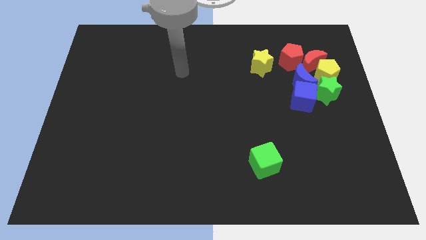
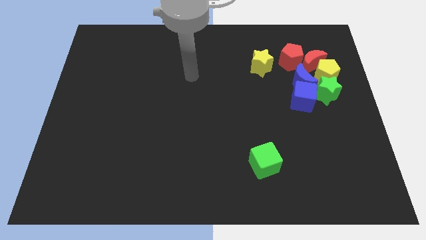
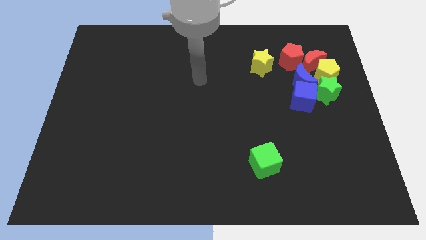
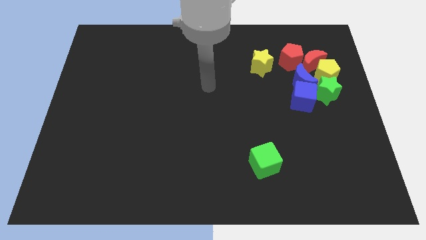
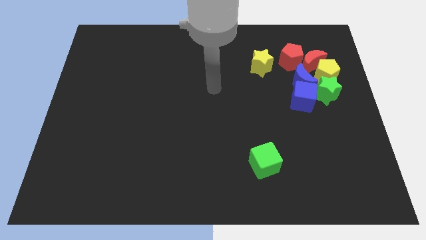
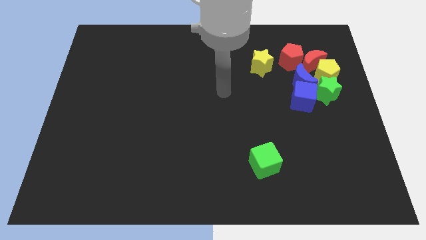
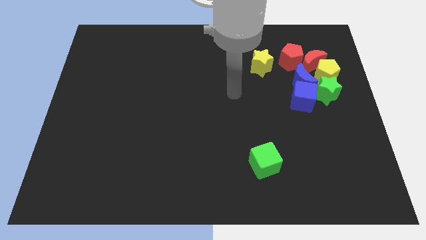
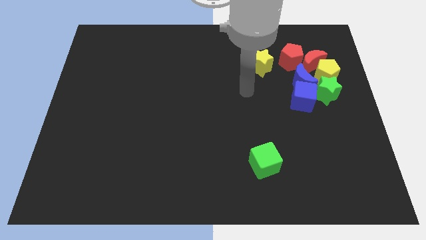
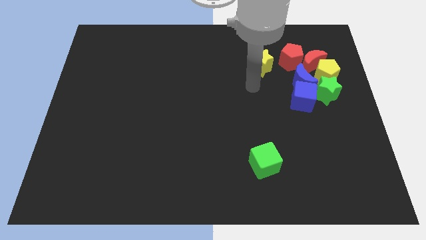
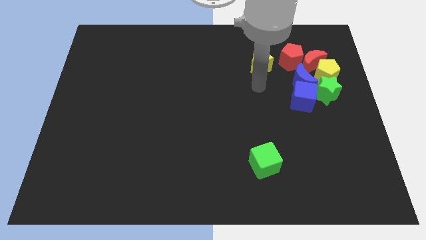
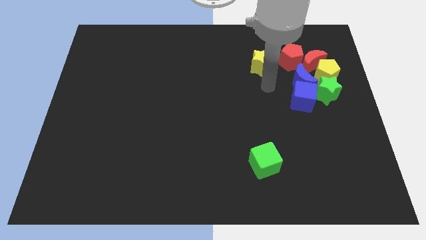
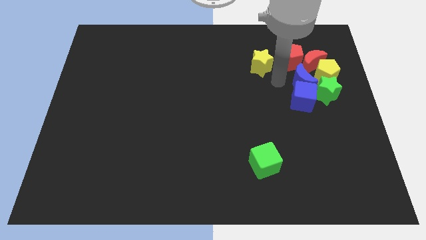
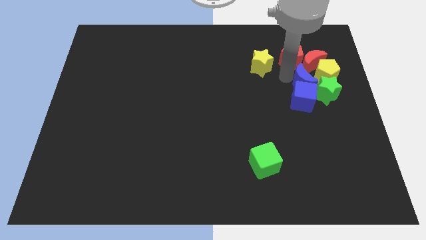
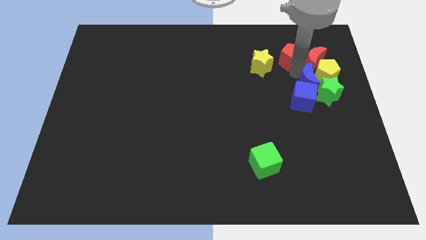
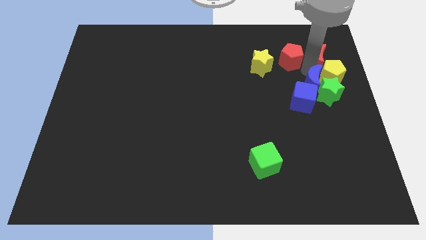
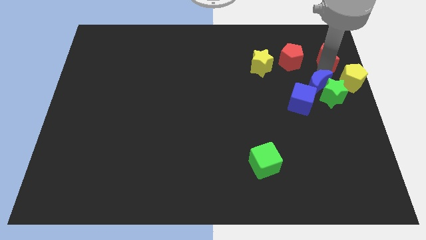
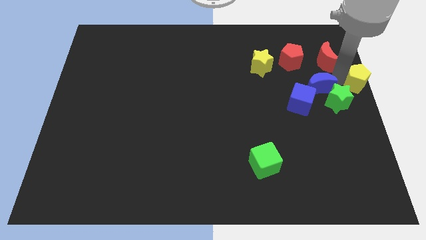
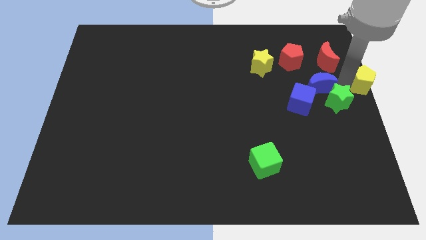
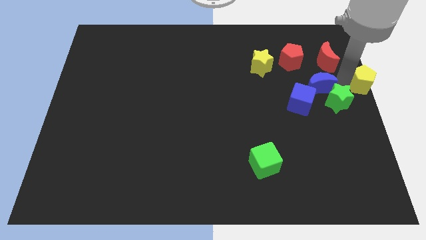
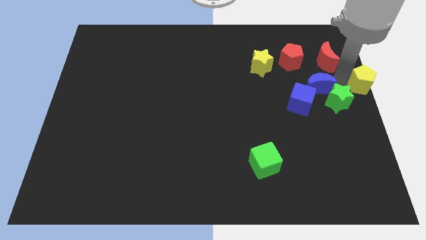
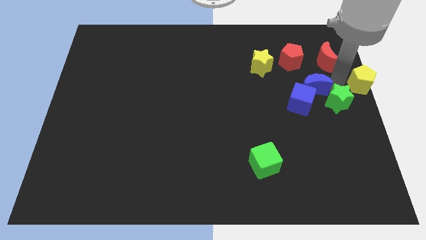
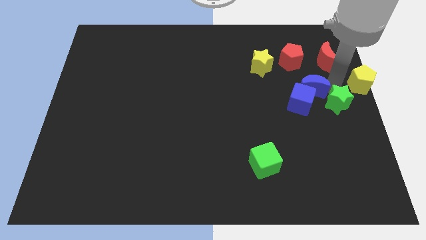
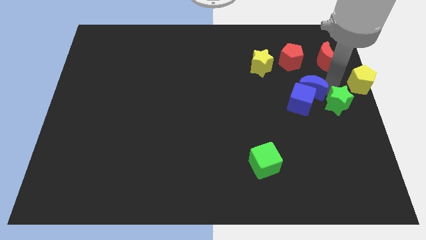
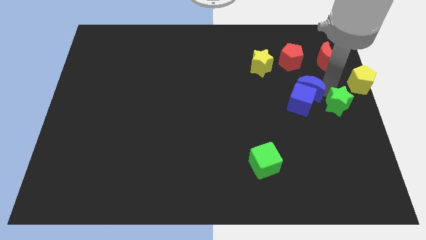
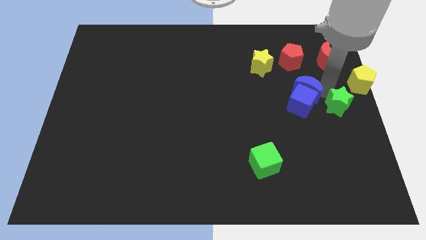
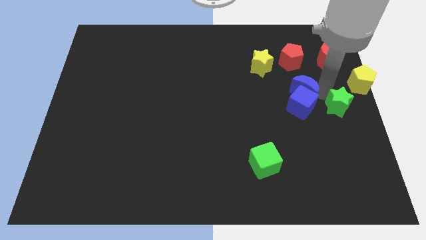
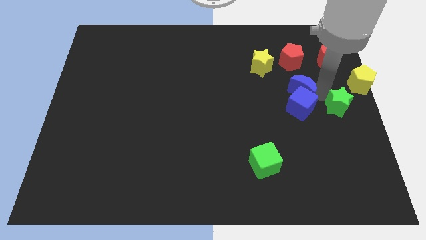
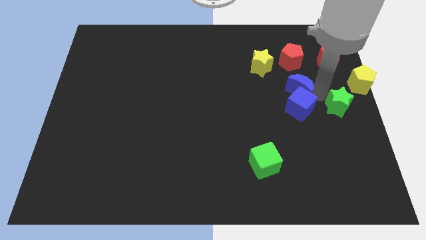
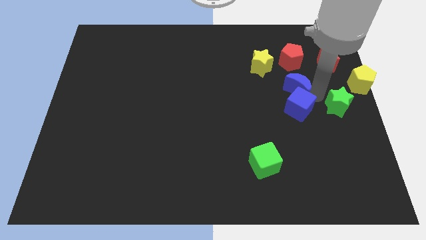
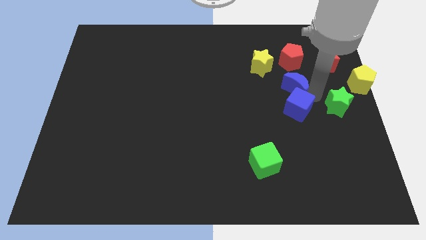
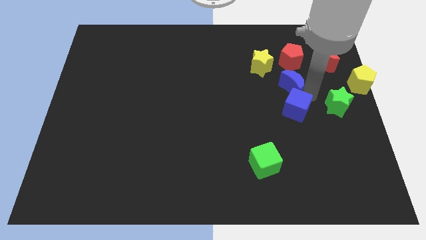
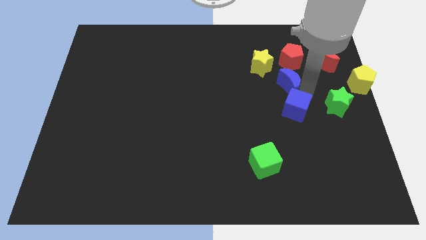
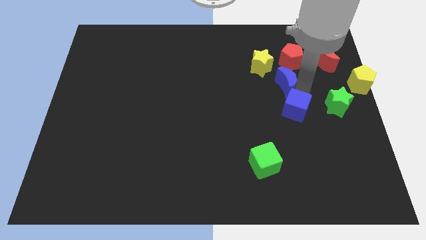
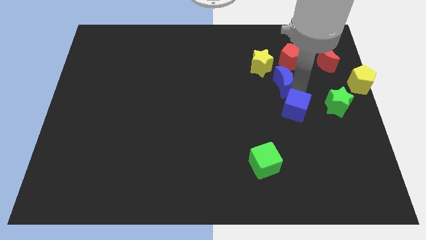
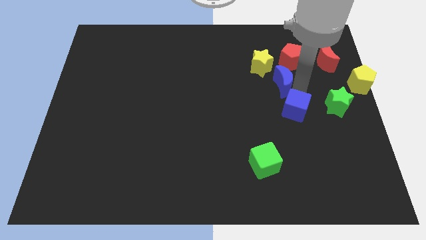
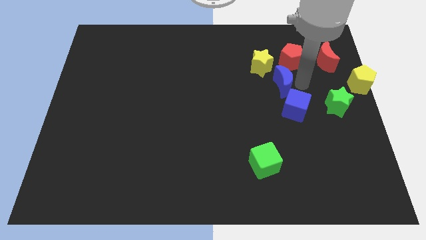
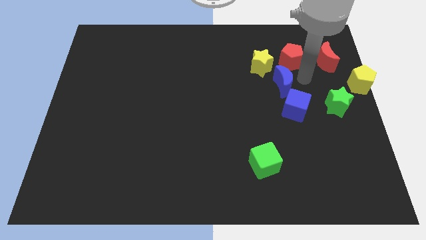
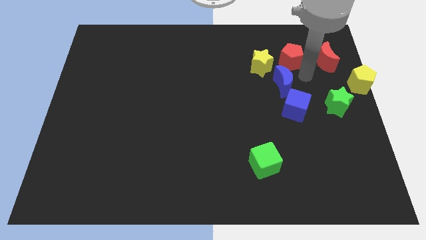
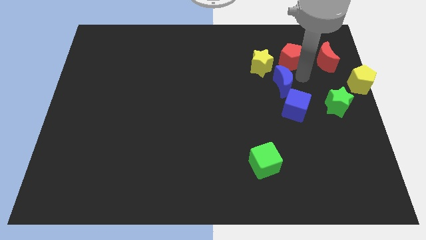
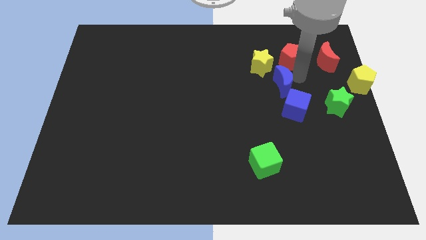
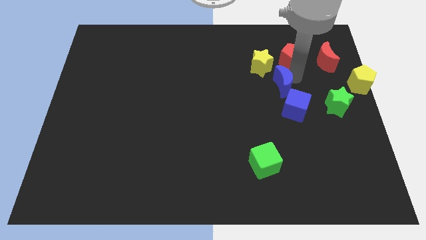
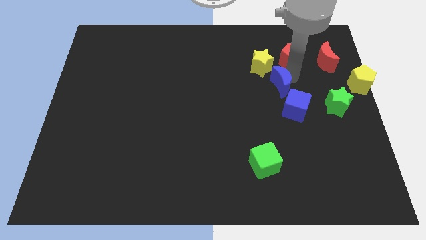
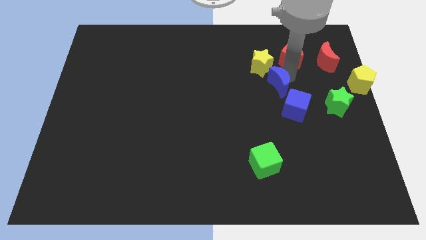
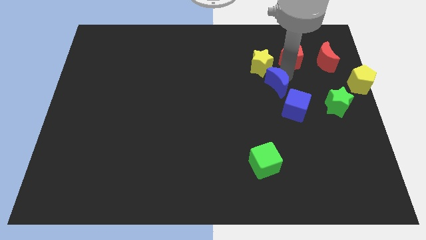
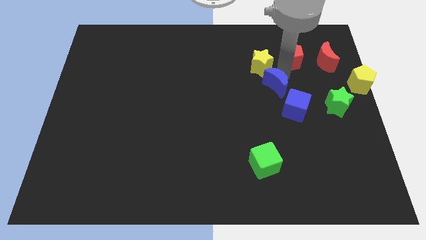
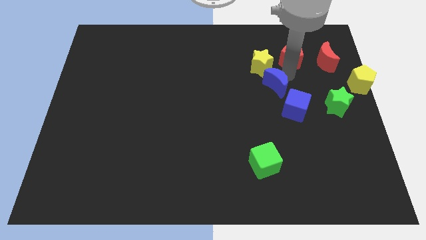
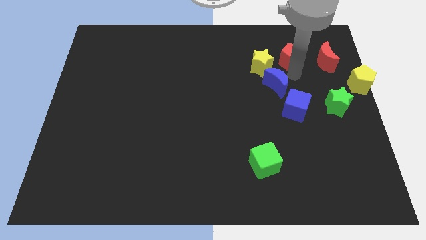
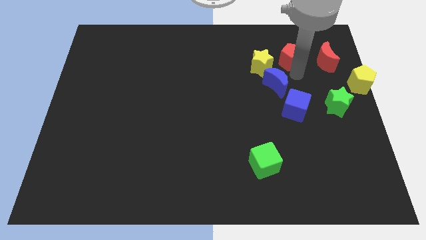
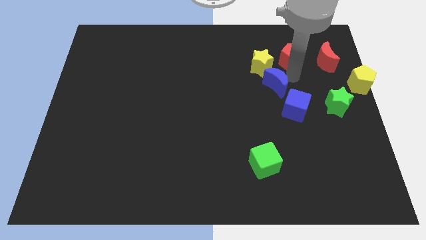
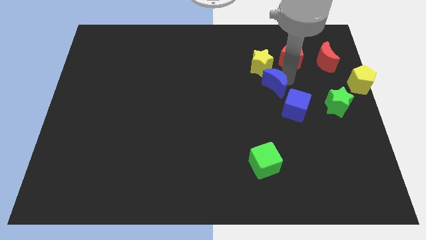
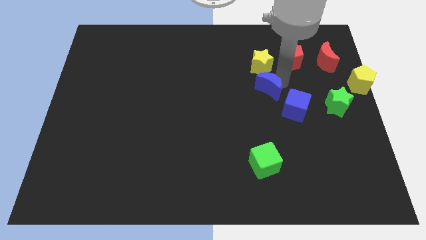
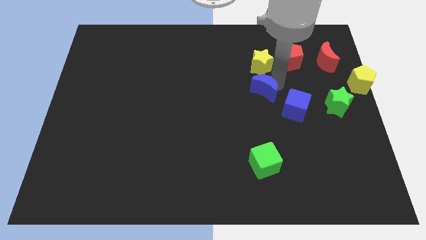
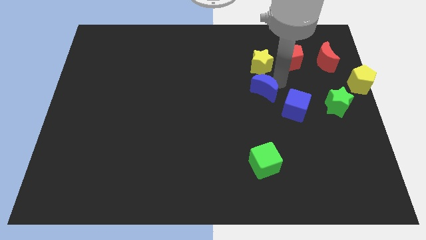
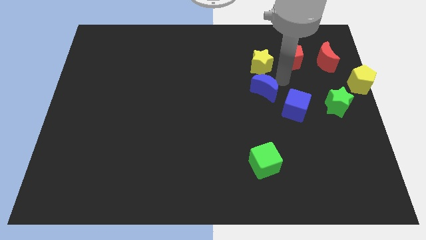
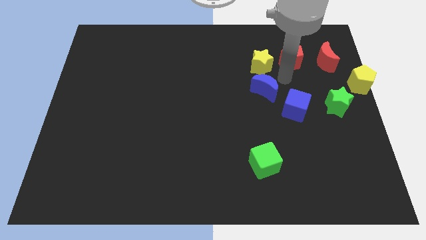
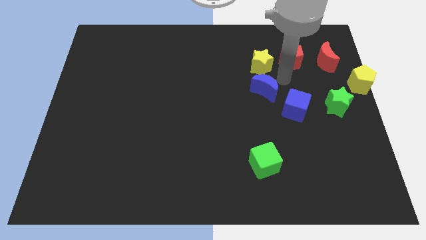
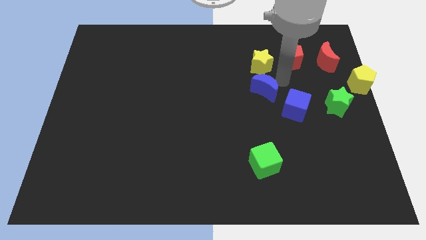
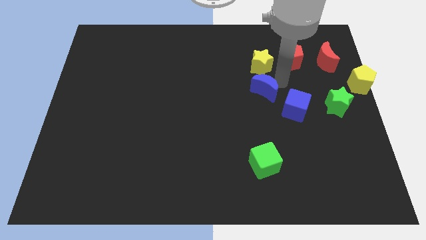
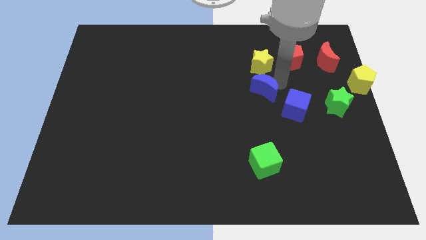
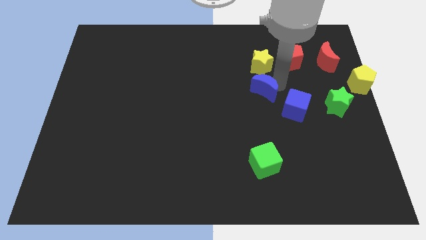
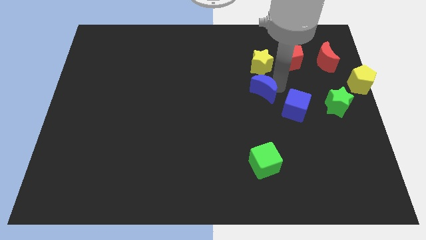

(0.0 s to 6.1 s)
put the blue moon to the middle
